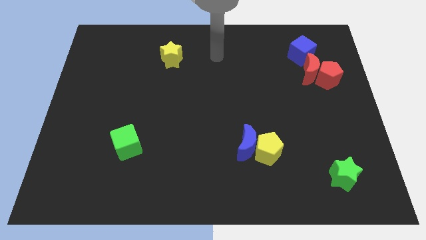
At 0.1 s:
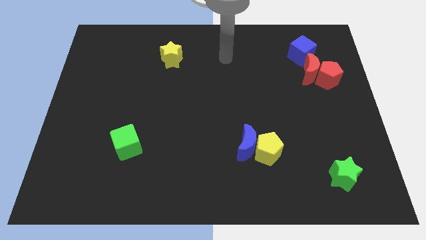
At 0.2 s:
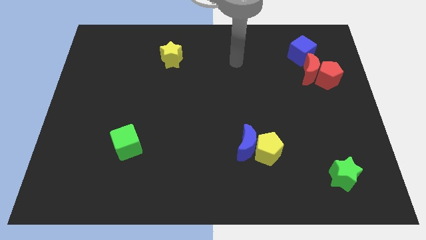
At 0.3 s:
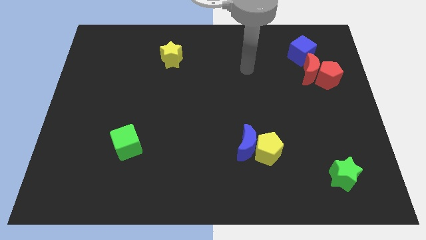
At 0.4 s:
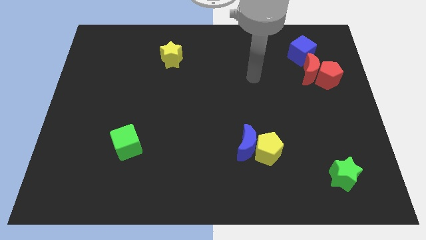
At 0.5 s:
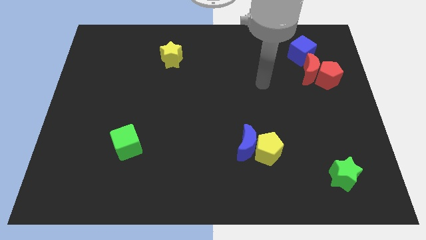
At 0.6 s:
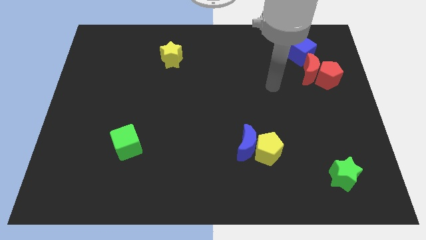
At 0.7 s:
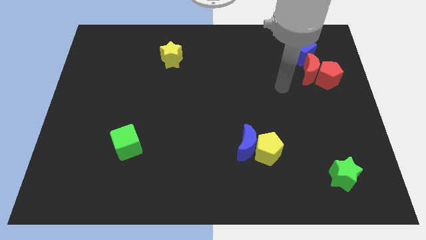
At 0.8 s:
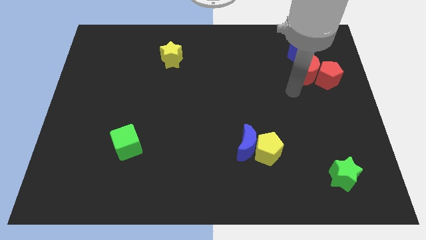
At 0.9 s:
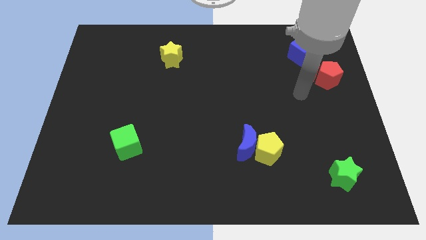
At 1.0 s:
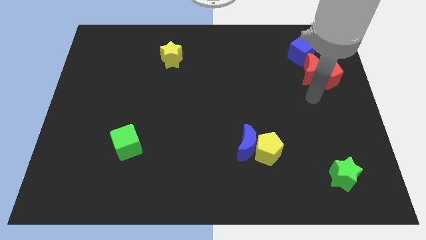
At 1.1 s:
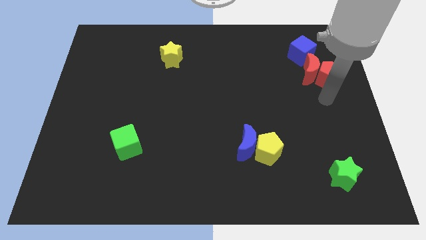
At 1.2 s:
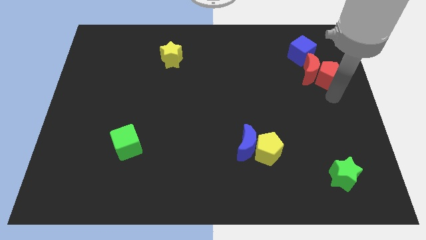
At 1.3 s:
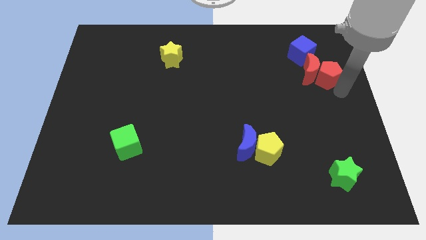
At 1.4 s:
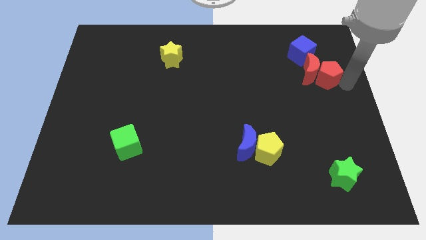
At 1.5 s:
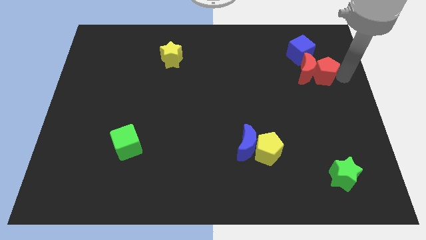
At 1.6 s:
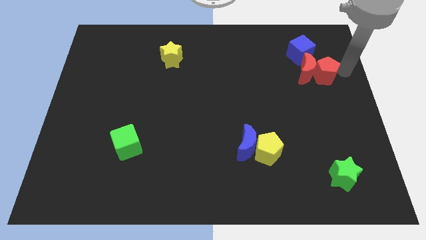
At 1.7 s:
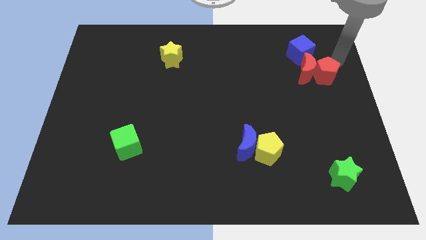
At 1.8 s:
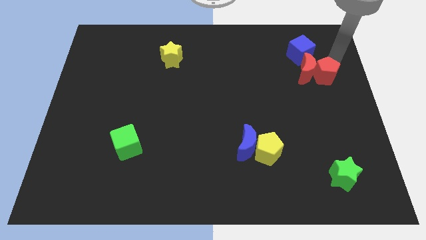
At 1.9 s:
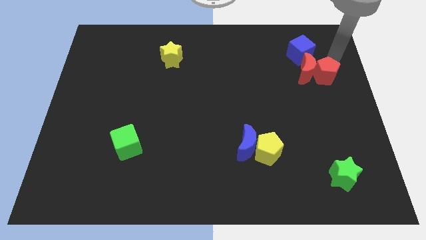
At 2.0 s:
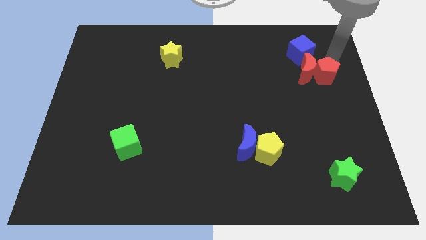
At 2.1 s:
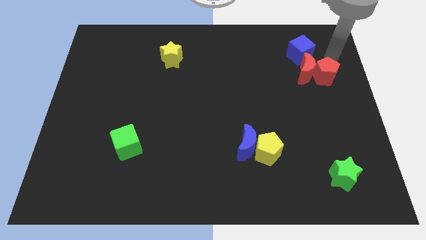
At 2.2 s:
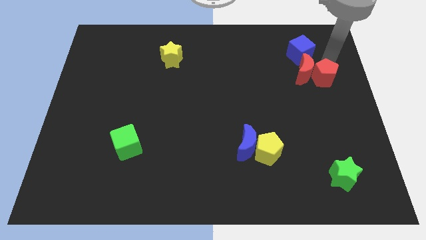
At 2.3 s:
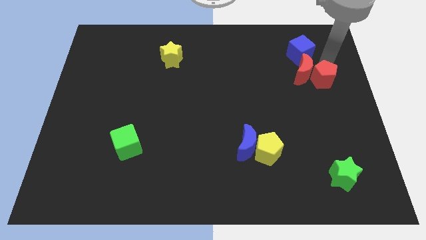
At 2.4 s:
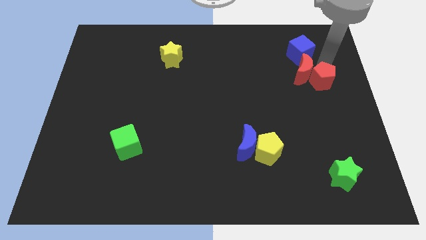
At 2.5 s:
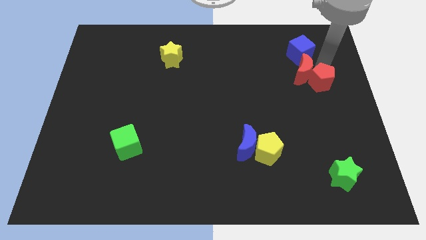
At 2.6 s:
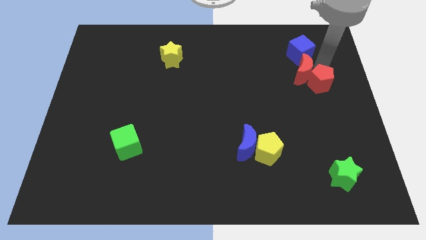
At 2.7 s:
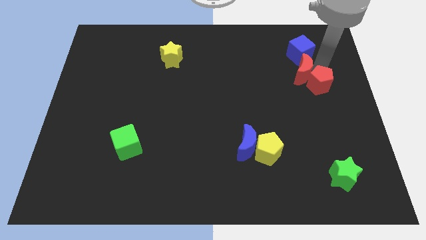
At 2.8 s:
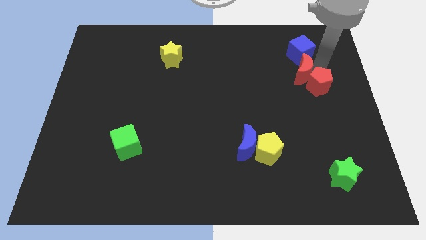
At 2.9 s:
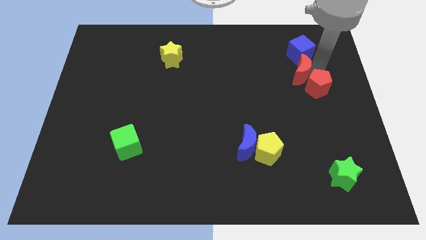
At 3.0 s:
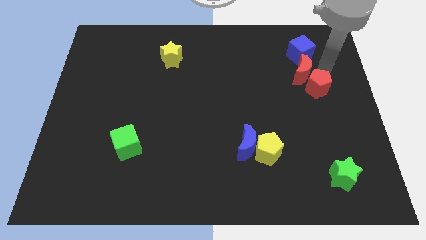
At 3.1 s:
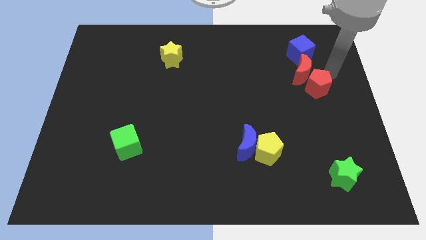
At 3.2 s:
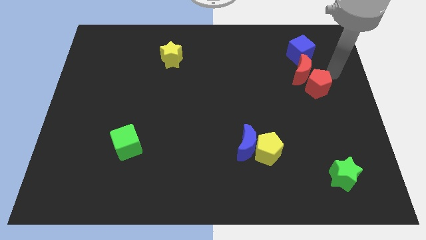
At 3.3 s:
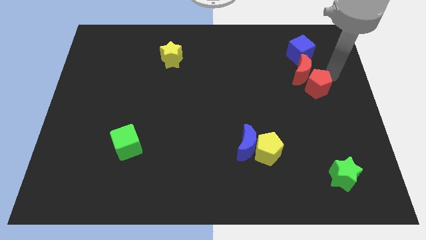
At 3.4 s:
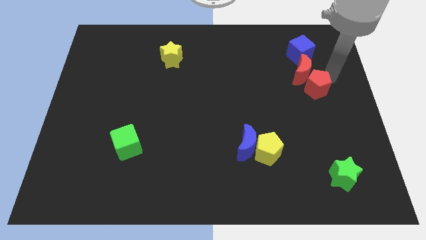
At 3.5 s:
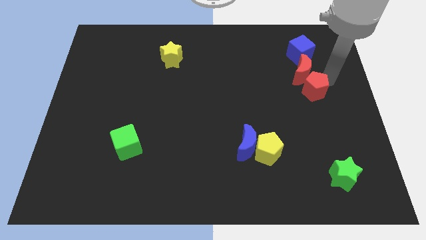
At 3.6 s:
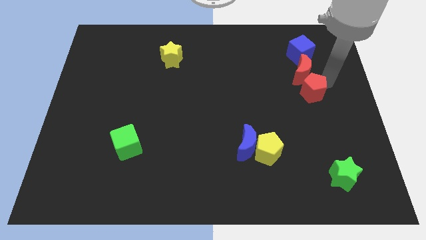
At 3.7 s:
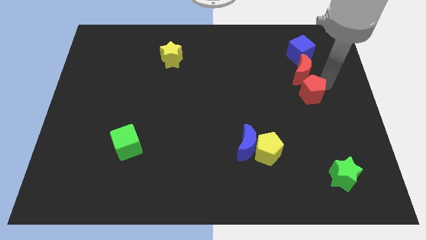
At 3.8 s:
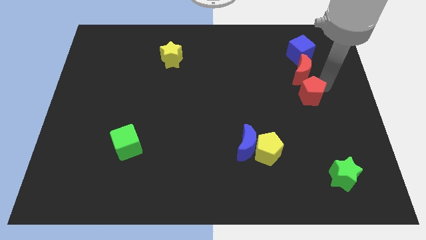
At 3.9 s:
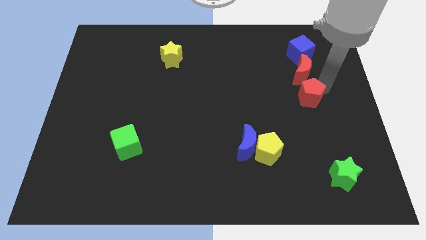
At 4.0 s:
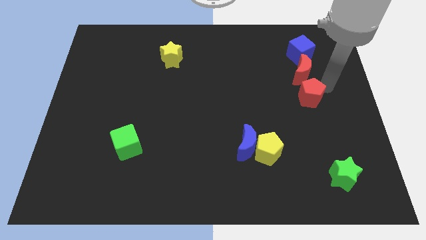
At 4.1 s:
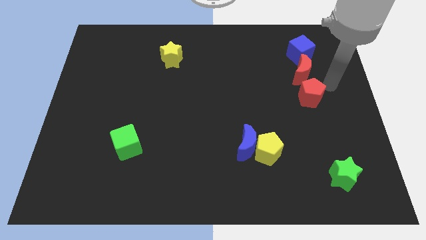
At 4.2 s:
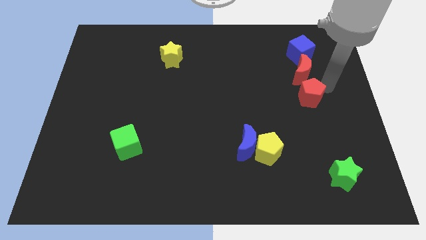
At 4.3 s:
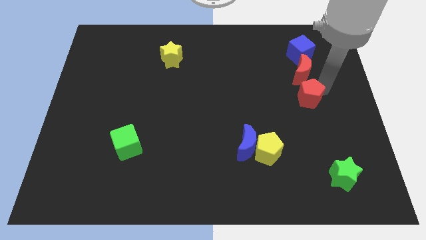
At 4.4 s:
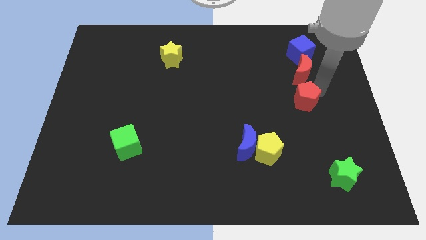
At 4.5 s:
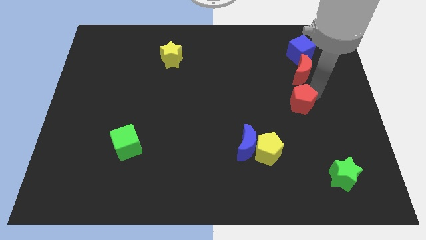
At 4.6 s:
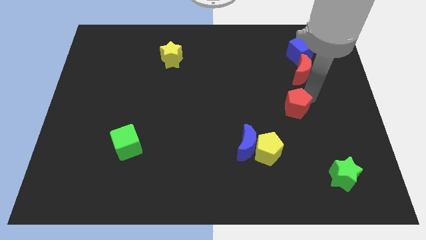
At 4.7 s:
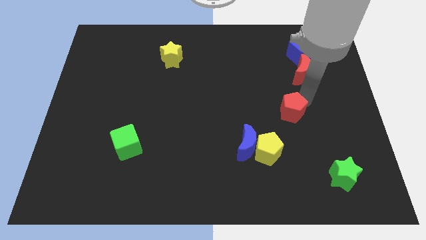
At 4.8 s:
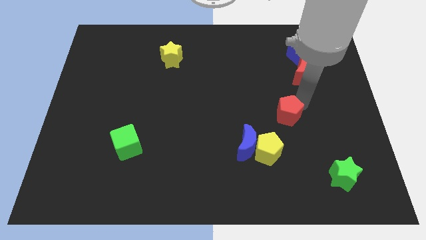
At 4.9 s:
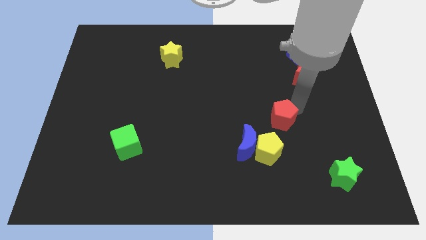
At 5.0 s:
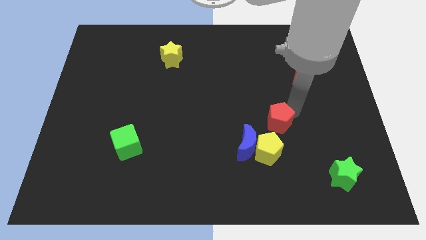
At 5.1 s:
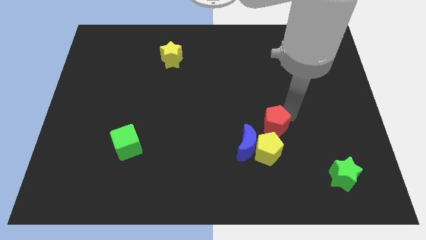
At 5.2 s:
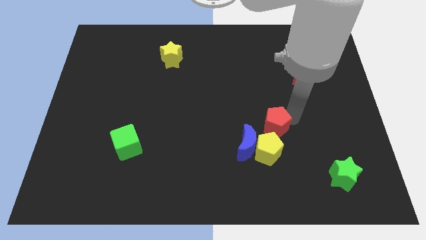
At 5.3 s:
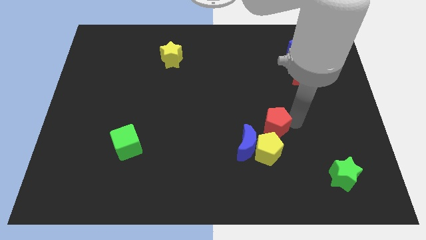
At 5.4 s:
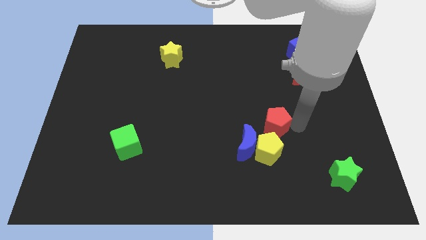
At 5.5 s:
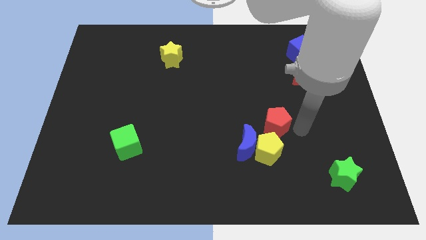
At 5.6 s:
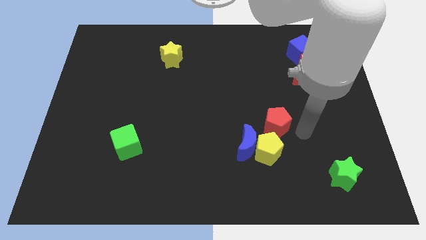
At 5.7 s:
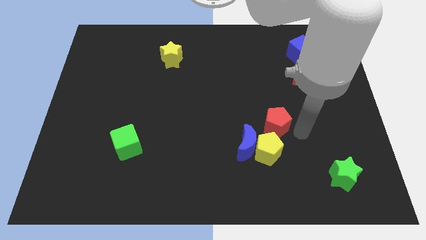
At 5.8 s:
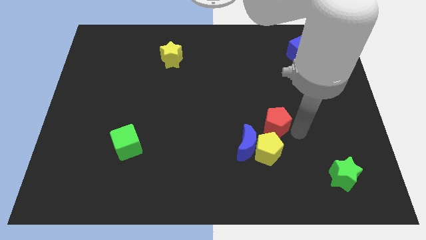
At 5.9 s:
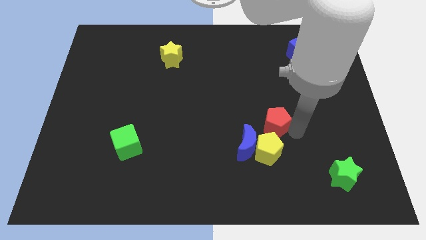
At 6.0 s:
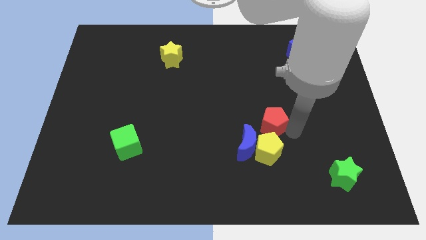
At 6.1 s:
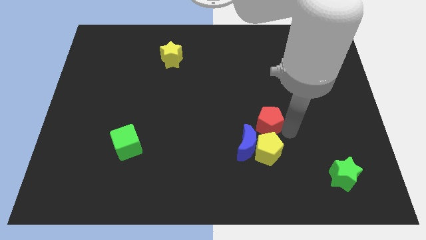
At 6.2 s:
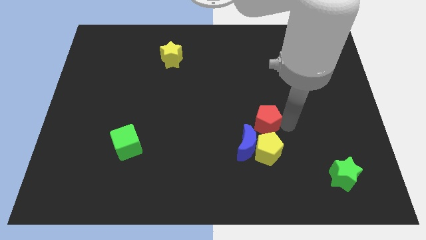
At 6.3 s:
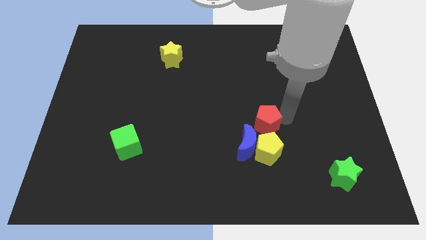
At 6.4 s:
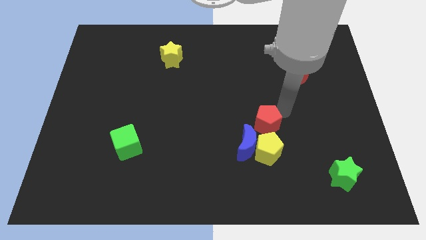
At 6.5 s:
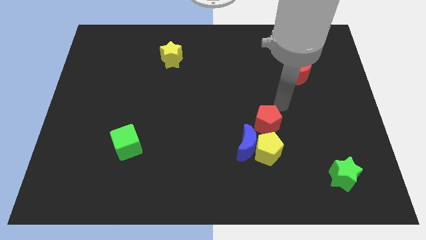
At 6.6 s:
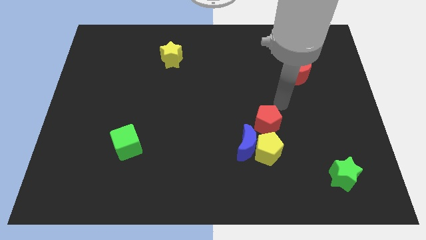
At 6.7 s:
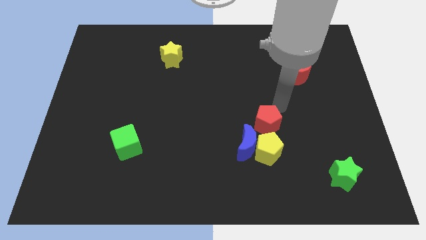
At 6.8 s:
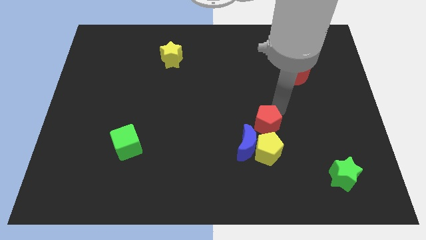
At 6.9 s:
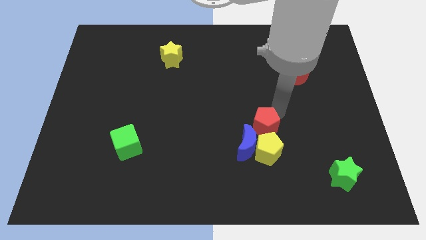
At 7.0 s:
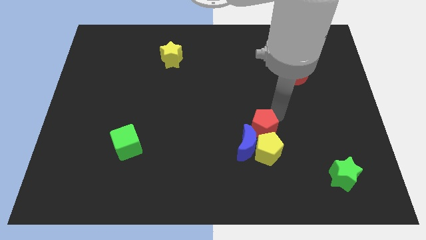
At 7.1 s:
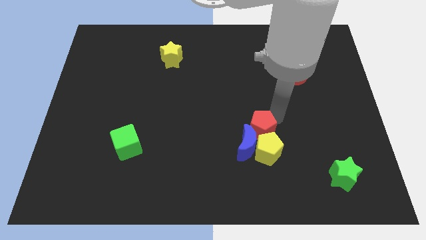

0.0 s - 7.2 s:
push the red pentagon next to the blue moon

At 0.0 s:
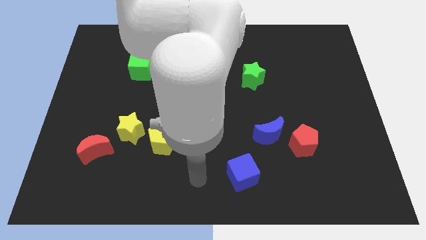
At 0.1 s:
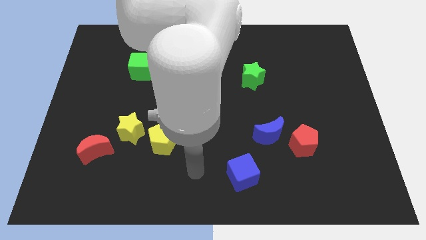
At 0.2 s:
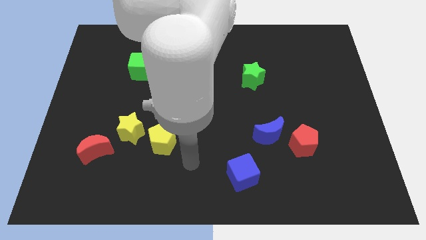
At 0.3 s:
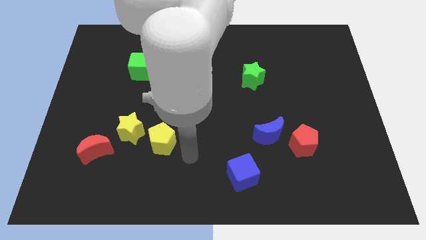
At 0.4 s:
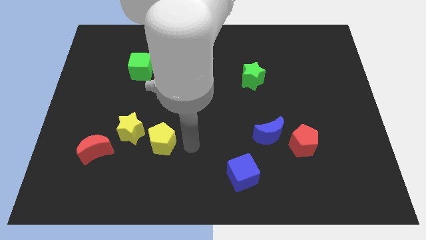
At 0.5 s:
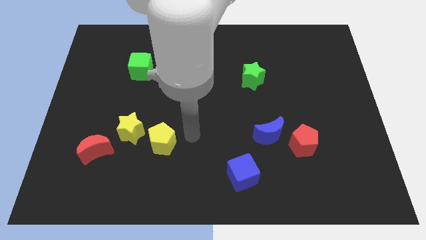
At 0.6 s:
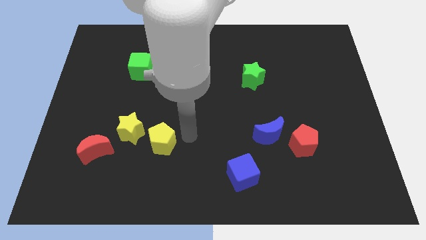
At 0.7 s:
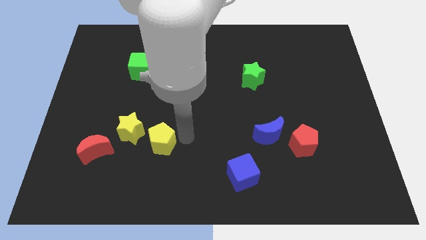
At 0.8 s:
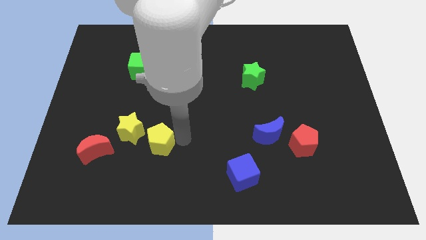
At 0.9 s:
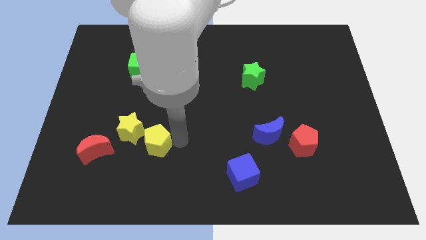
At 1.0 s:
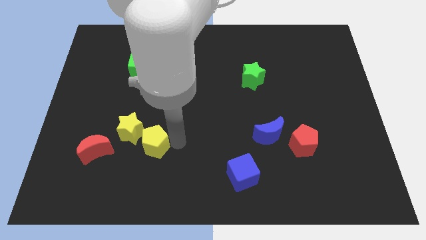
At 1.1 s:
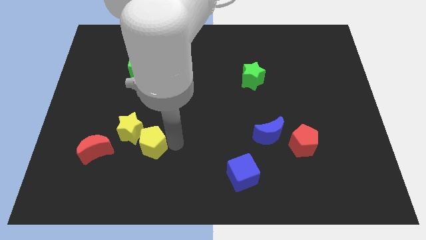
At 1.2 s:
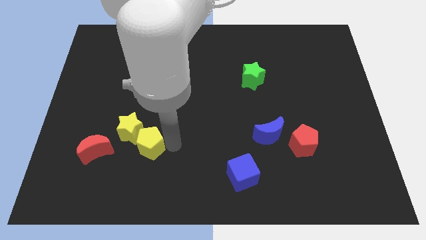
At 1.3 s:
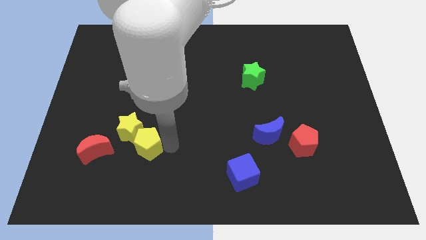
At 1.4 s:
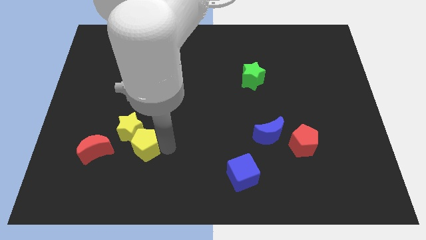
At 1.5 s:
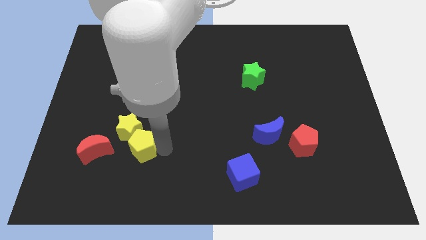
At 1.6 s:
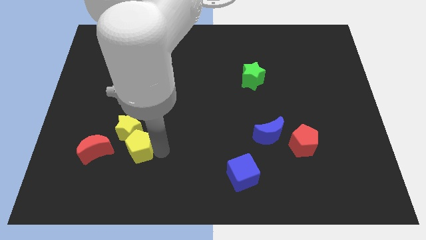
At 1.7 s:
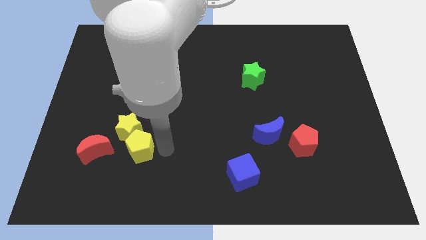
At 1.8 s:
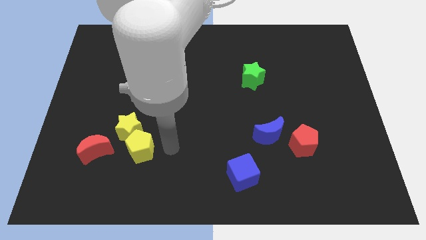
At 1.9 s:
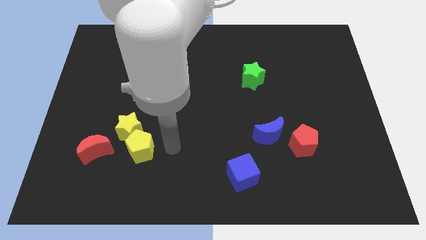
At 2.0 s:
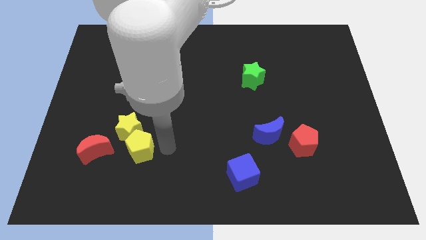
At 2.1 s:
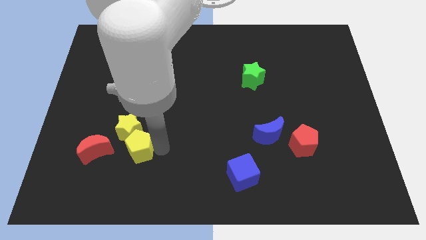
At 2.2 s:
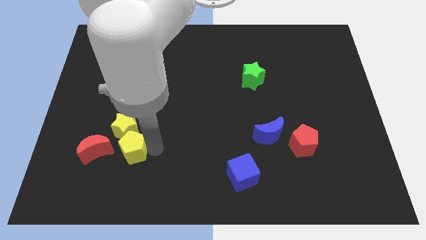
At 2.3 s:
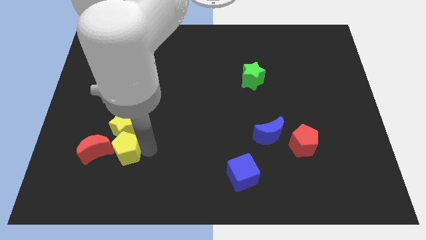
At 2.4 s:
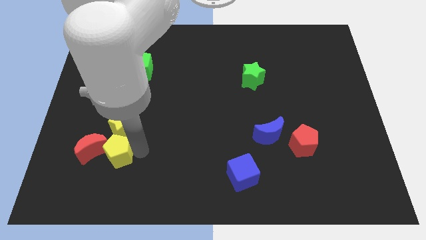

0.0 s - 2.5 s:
put the yellow pentagon close to the red moon
